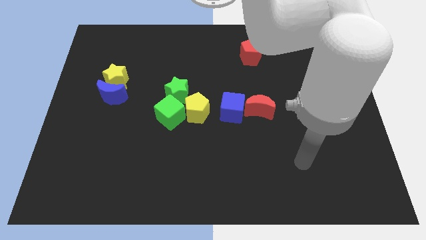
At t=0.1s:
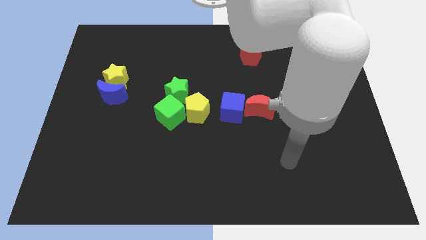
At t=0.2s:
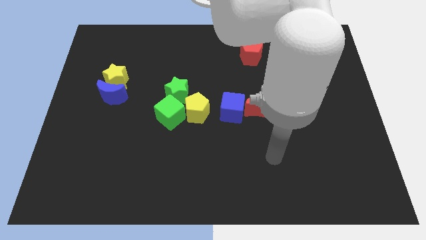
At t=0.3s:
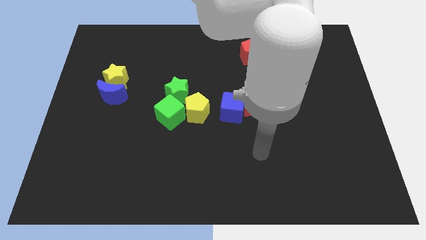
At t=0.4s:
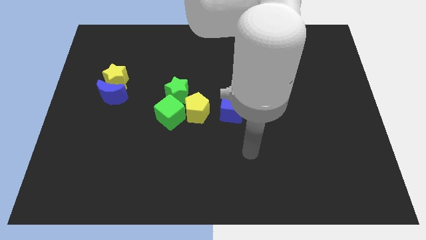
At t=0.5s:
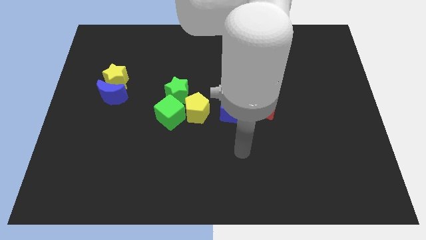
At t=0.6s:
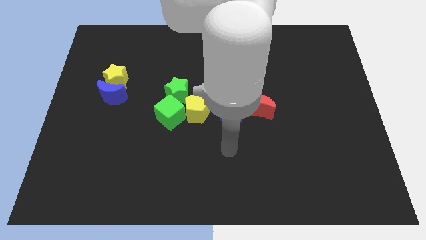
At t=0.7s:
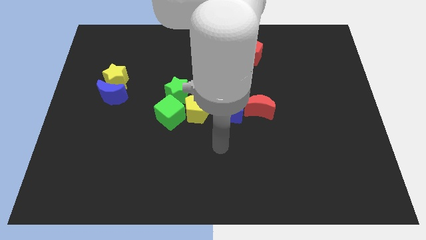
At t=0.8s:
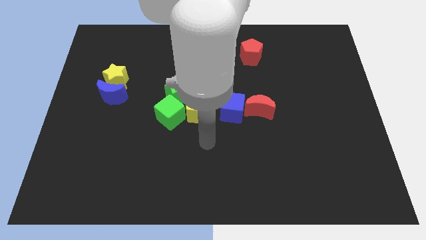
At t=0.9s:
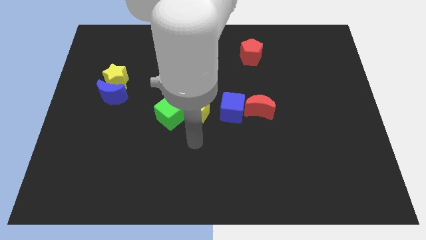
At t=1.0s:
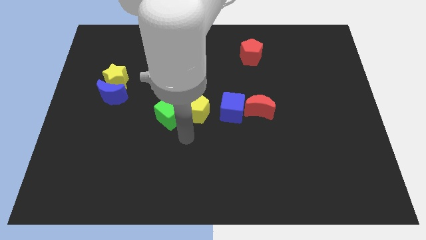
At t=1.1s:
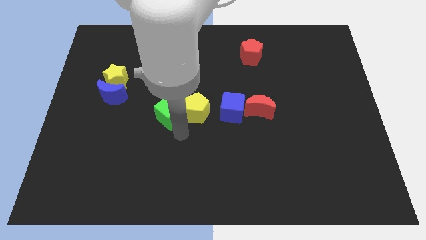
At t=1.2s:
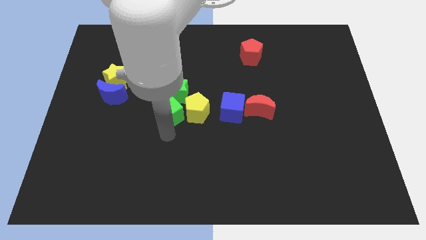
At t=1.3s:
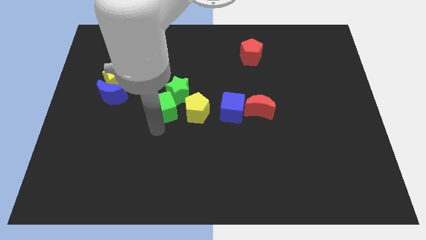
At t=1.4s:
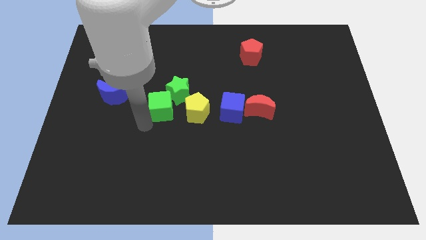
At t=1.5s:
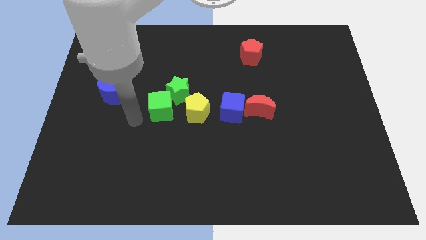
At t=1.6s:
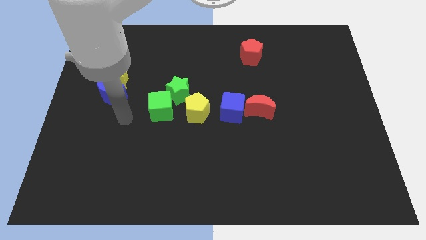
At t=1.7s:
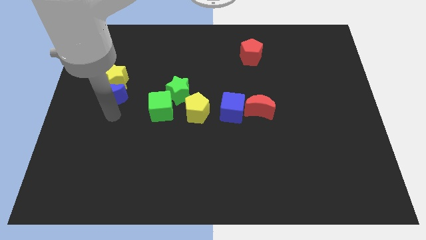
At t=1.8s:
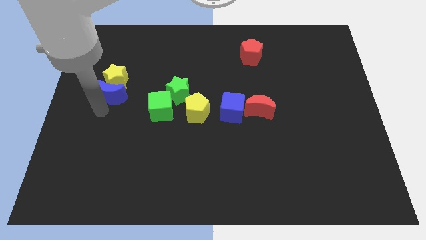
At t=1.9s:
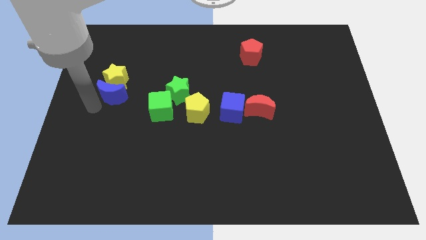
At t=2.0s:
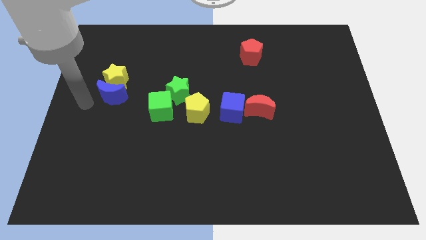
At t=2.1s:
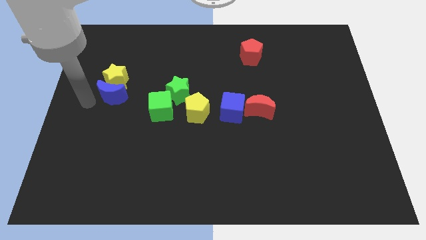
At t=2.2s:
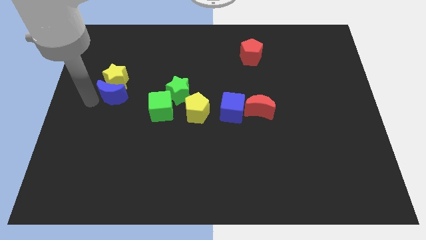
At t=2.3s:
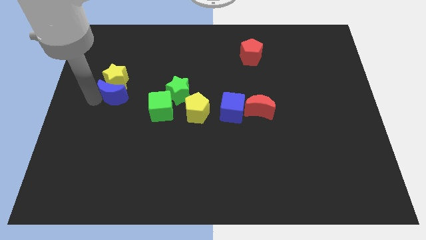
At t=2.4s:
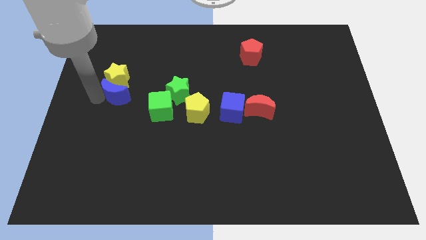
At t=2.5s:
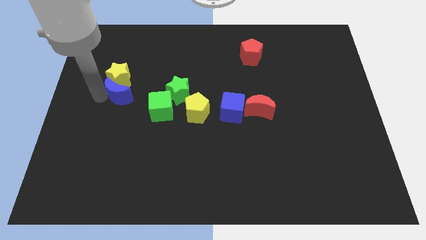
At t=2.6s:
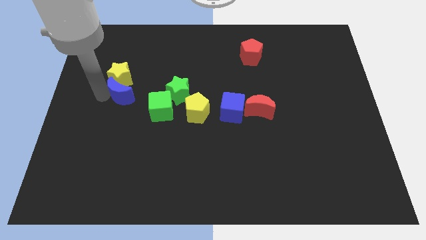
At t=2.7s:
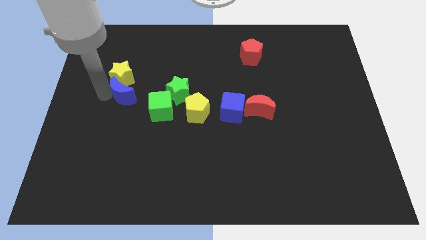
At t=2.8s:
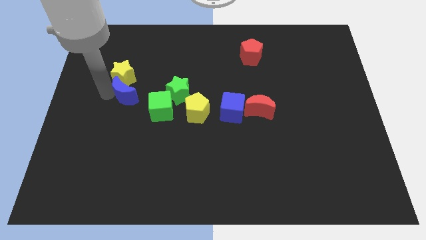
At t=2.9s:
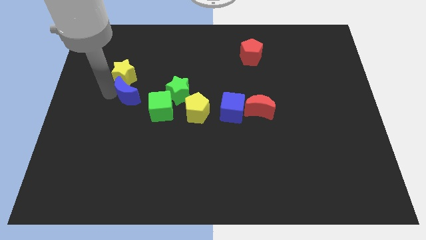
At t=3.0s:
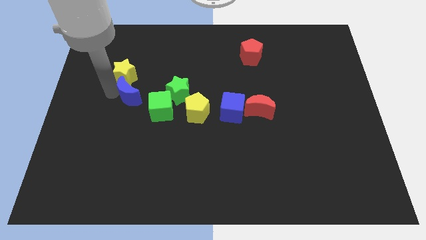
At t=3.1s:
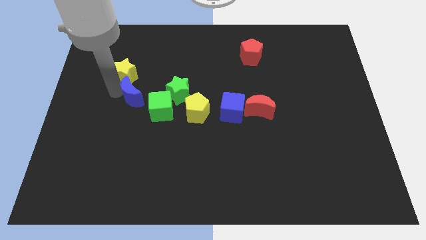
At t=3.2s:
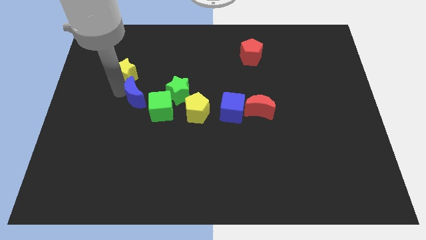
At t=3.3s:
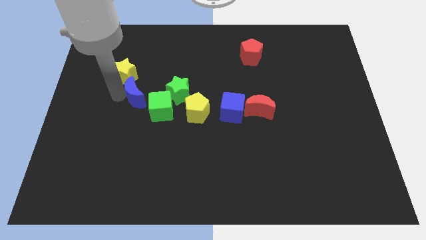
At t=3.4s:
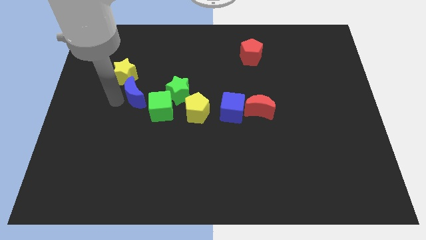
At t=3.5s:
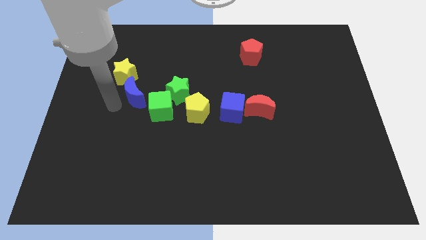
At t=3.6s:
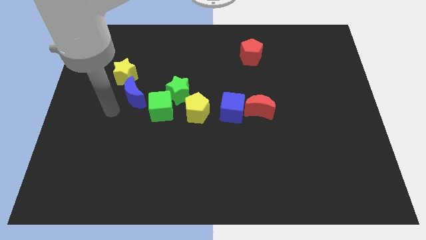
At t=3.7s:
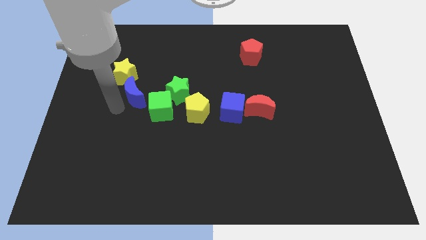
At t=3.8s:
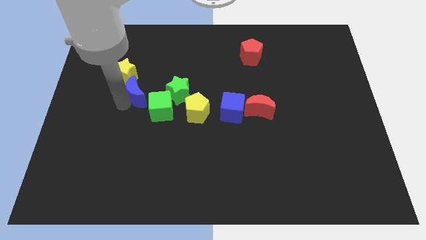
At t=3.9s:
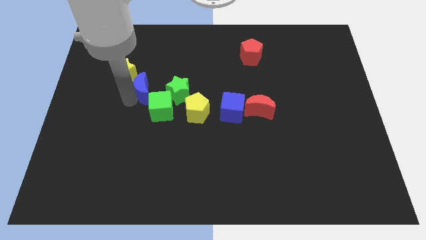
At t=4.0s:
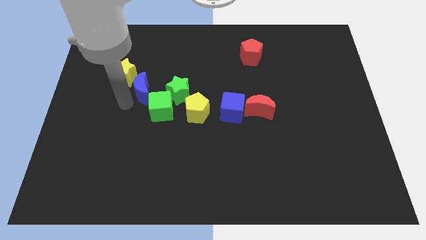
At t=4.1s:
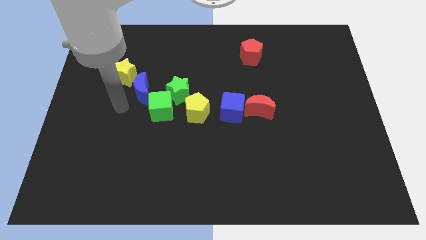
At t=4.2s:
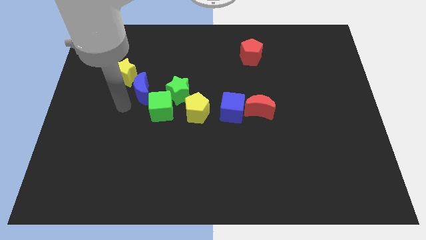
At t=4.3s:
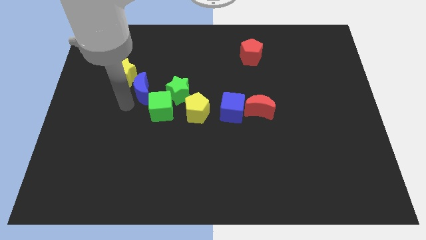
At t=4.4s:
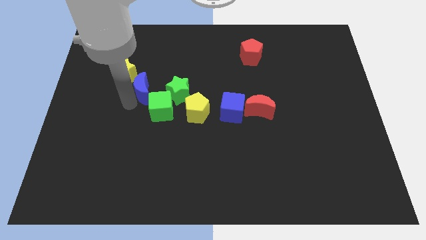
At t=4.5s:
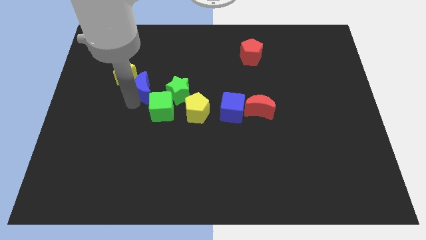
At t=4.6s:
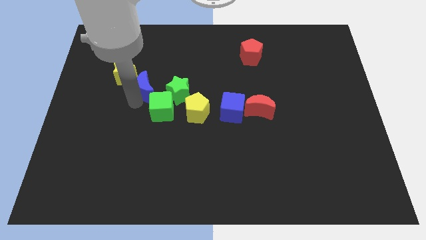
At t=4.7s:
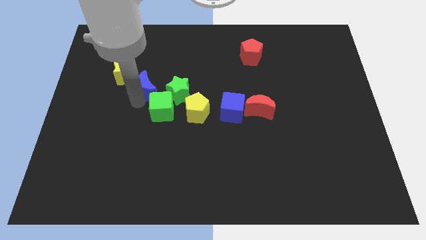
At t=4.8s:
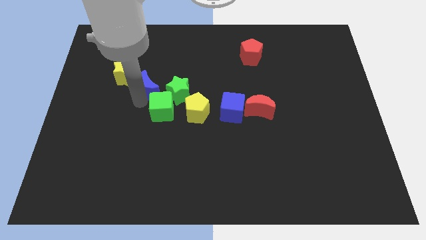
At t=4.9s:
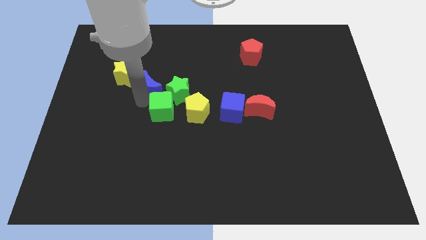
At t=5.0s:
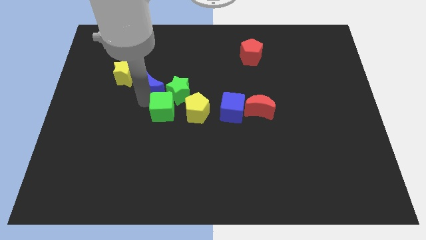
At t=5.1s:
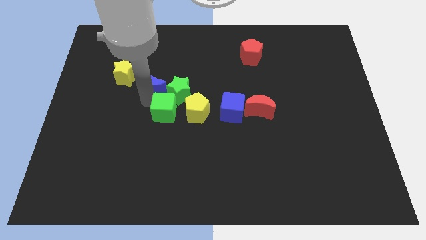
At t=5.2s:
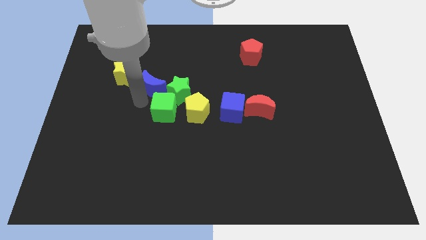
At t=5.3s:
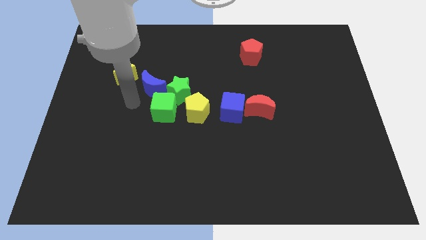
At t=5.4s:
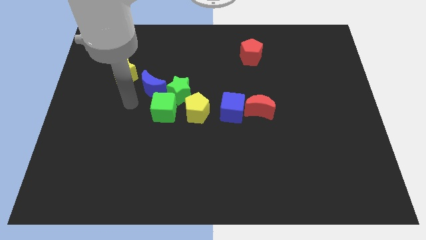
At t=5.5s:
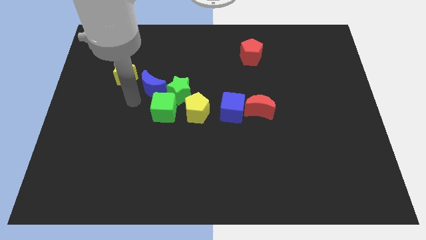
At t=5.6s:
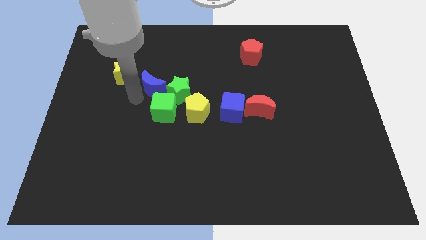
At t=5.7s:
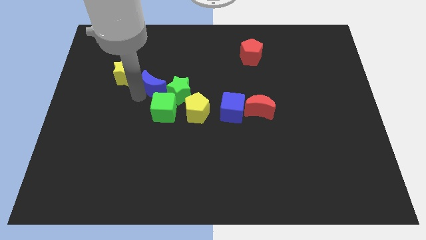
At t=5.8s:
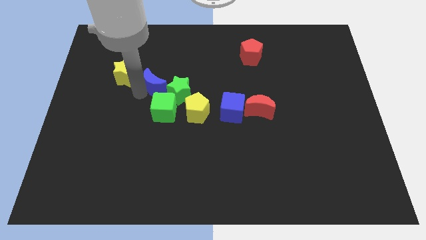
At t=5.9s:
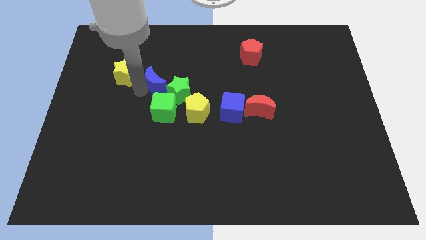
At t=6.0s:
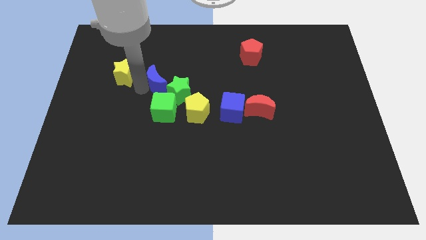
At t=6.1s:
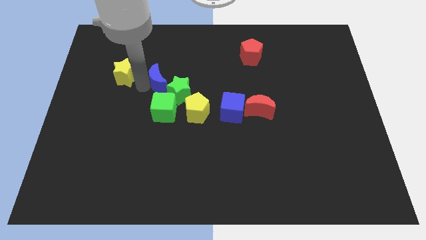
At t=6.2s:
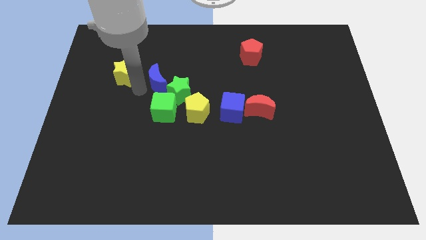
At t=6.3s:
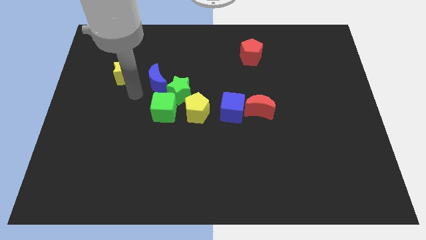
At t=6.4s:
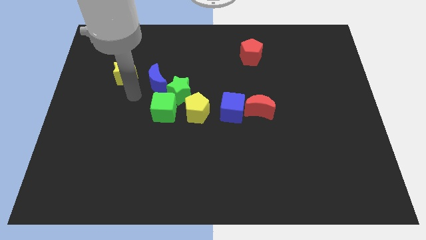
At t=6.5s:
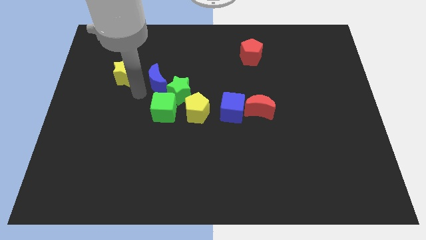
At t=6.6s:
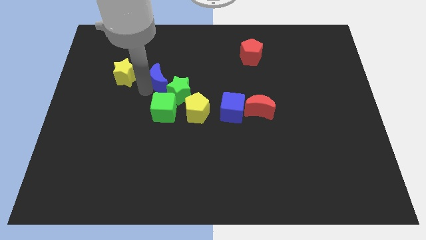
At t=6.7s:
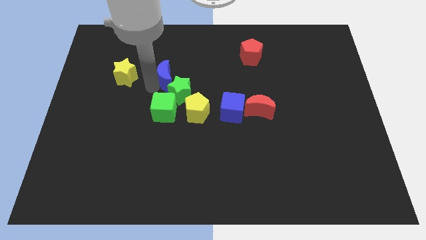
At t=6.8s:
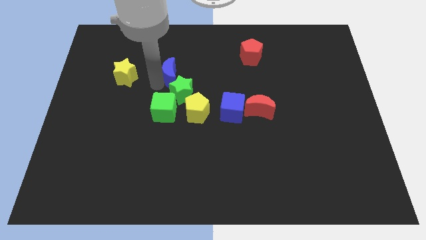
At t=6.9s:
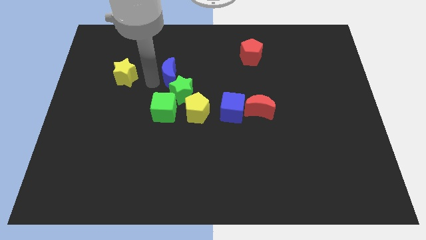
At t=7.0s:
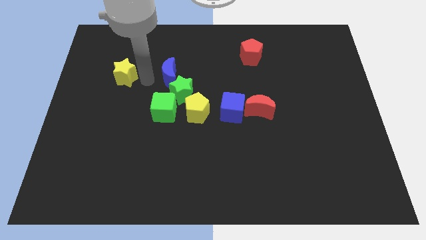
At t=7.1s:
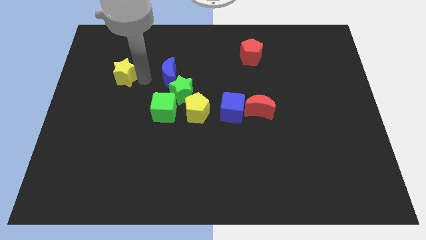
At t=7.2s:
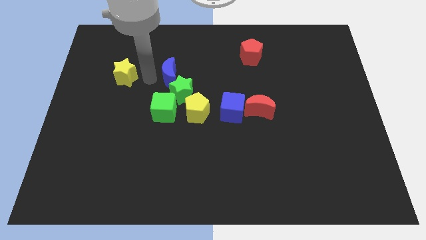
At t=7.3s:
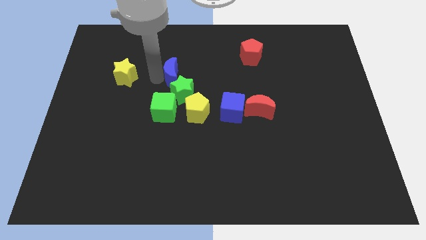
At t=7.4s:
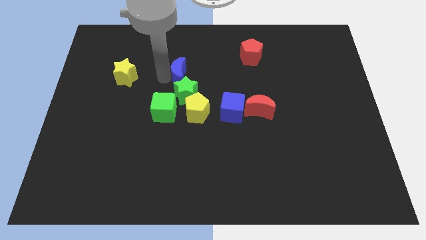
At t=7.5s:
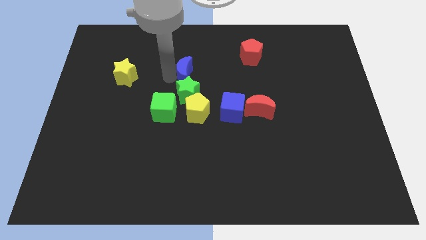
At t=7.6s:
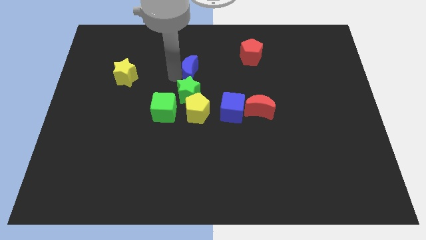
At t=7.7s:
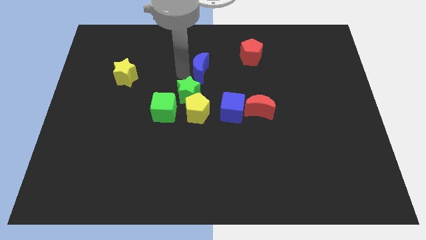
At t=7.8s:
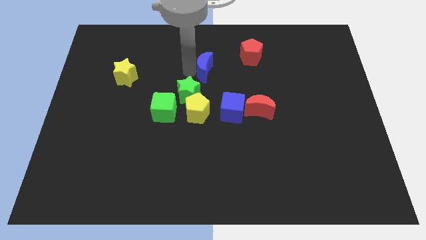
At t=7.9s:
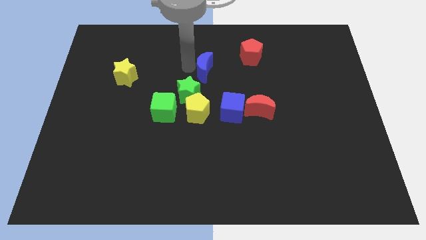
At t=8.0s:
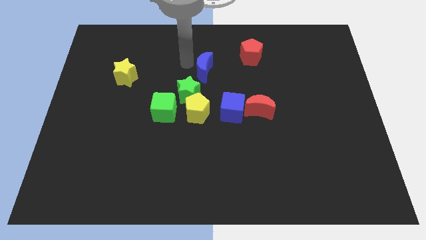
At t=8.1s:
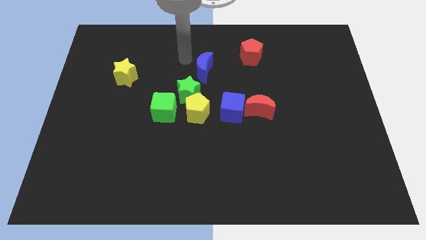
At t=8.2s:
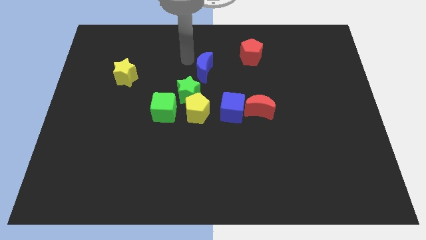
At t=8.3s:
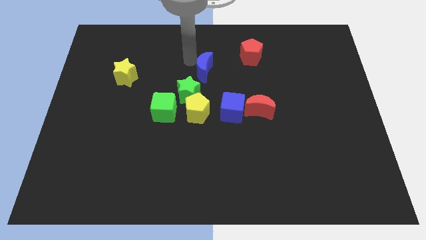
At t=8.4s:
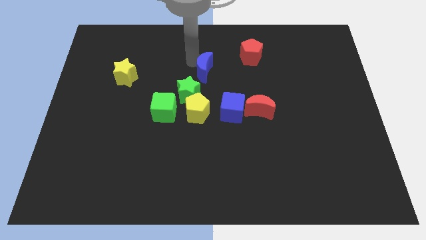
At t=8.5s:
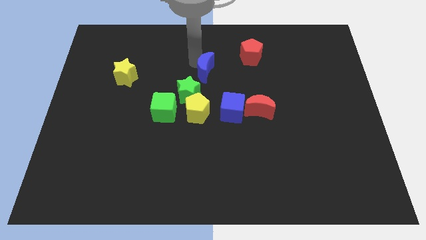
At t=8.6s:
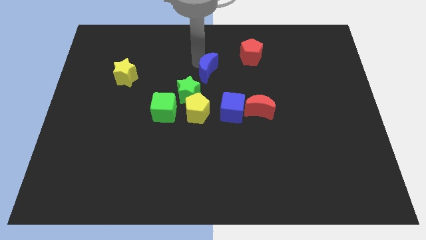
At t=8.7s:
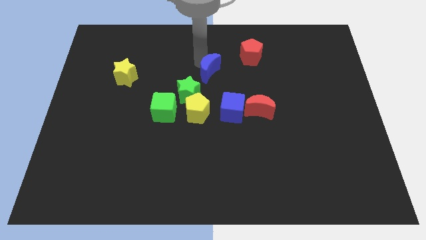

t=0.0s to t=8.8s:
slide the blue moon right
